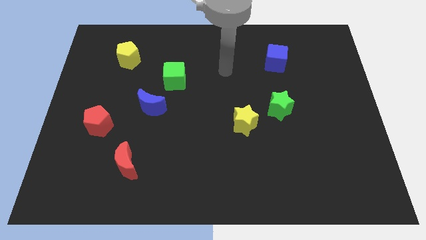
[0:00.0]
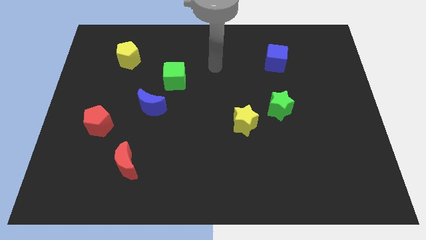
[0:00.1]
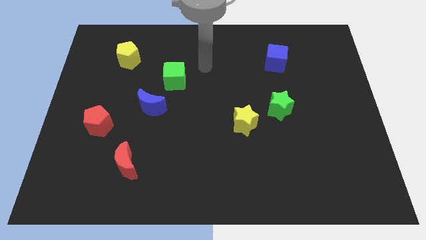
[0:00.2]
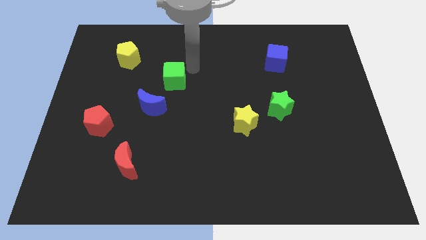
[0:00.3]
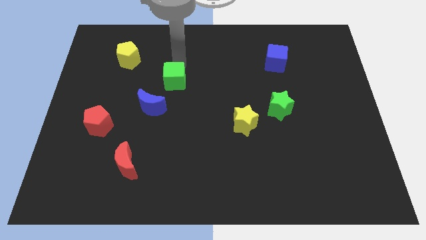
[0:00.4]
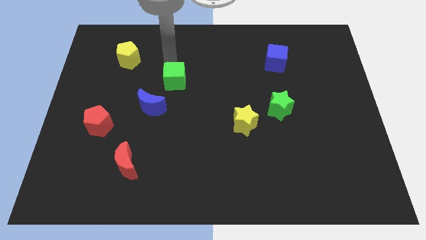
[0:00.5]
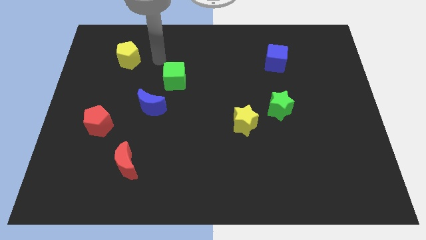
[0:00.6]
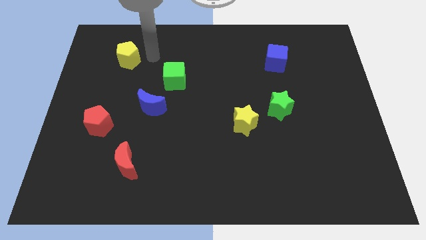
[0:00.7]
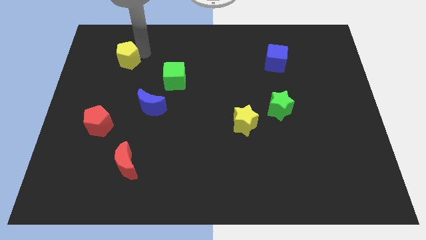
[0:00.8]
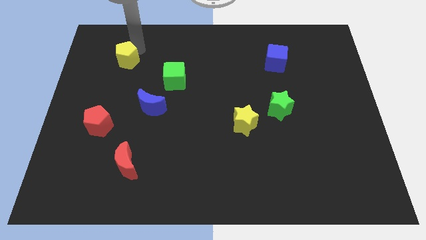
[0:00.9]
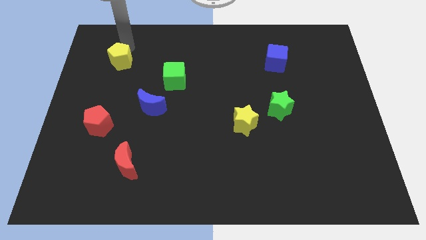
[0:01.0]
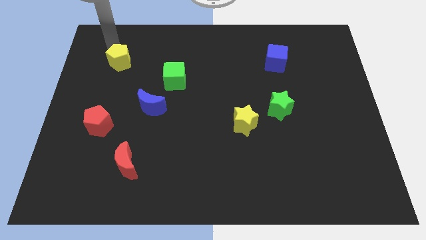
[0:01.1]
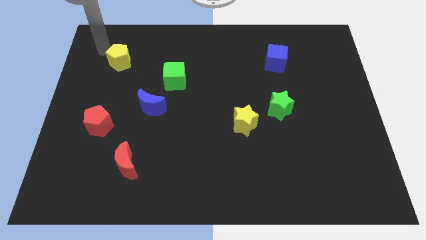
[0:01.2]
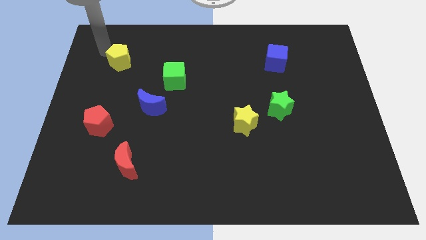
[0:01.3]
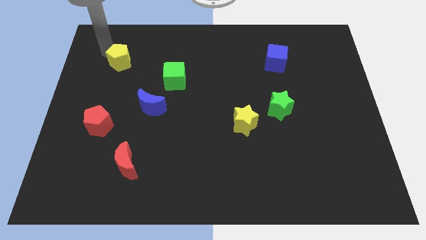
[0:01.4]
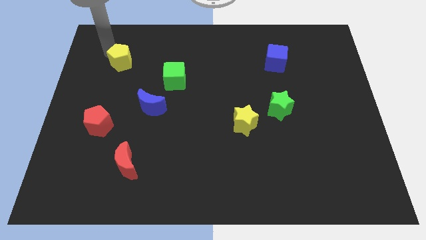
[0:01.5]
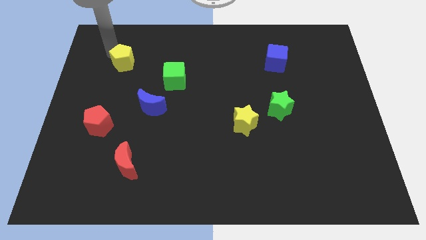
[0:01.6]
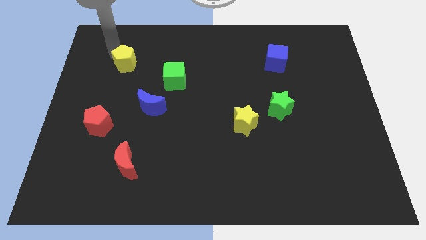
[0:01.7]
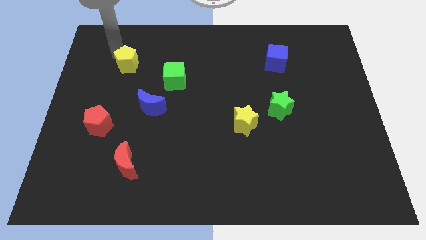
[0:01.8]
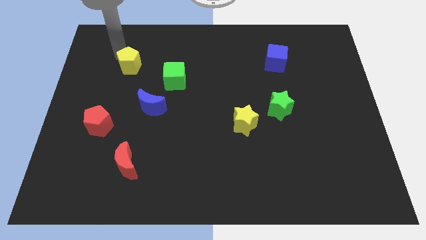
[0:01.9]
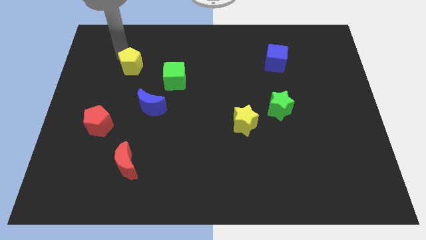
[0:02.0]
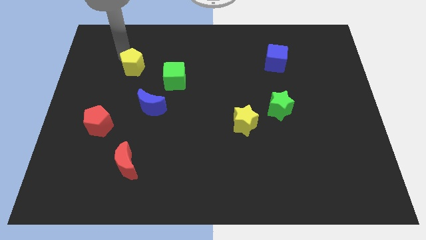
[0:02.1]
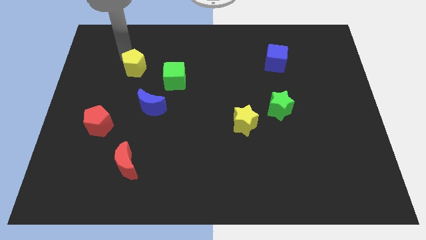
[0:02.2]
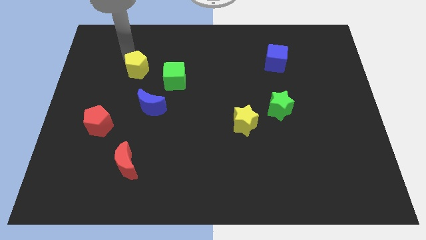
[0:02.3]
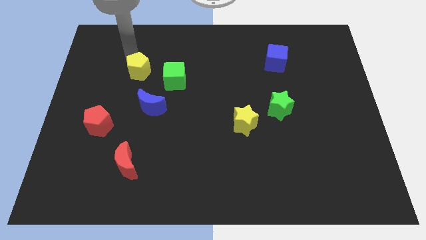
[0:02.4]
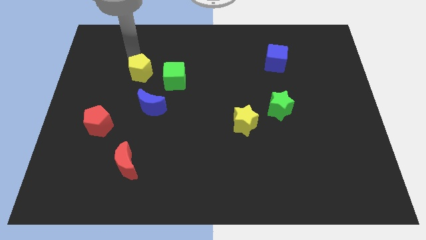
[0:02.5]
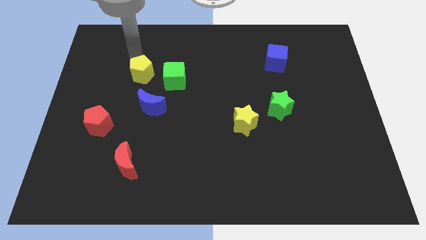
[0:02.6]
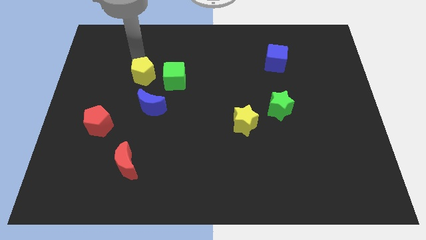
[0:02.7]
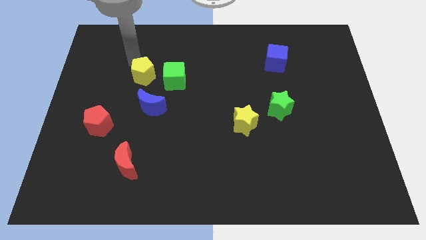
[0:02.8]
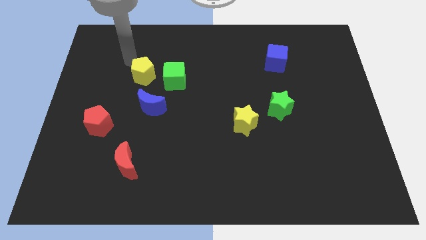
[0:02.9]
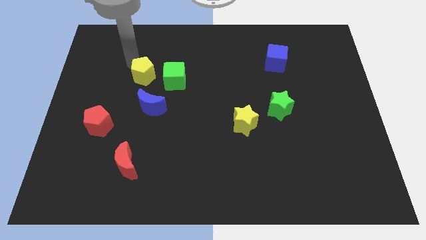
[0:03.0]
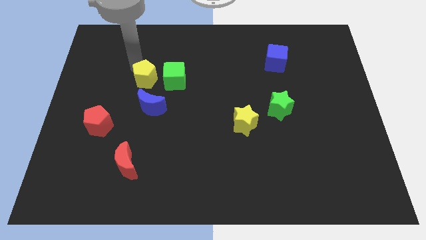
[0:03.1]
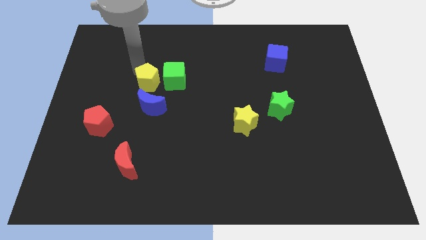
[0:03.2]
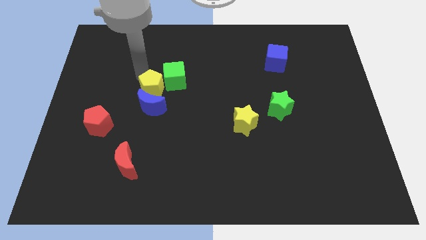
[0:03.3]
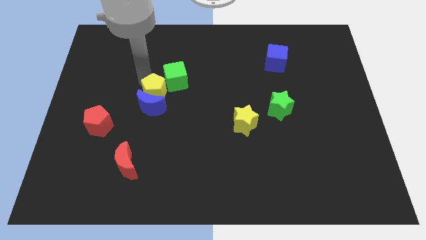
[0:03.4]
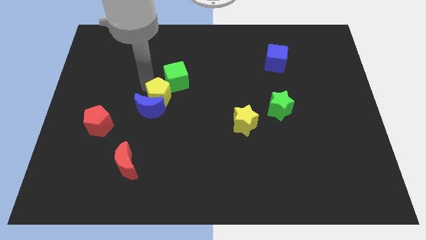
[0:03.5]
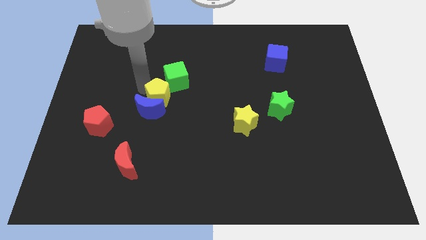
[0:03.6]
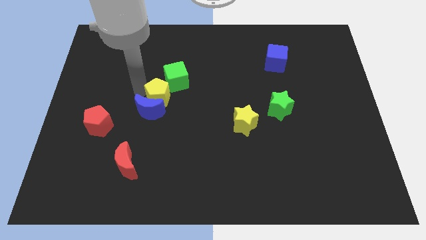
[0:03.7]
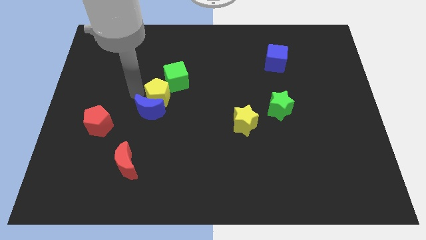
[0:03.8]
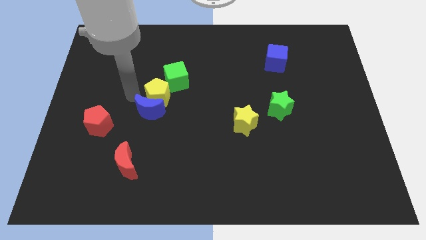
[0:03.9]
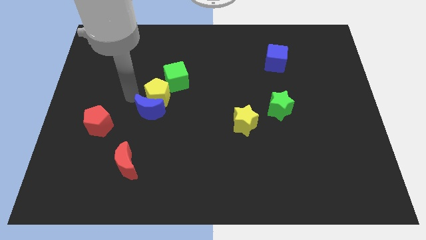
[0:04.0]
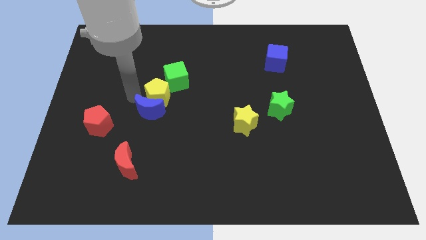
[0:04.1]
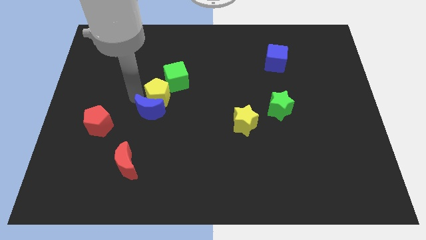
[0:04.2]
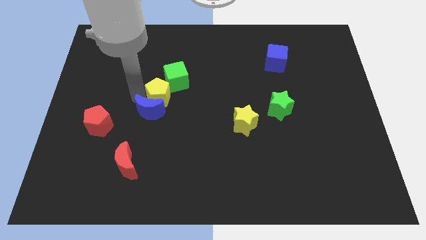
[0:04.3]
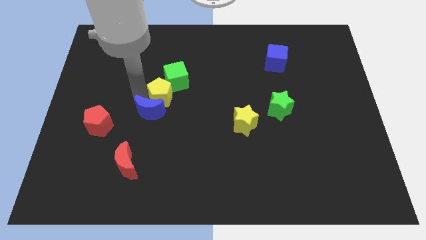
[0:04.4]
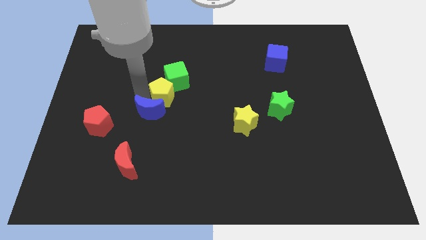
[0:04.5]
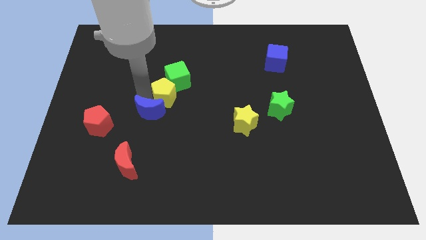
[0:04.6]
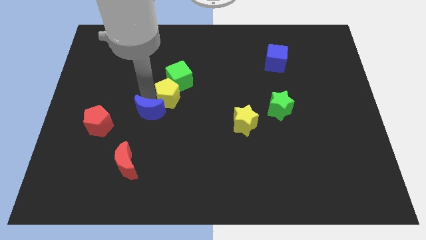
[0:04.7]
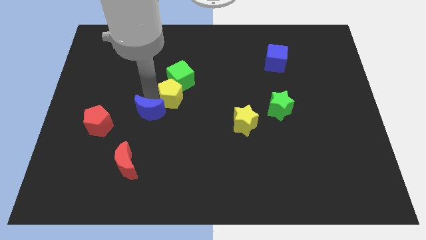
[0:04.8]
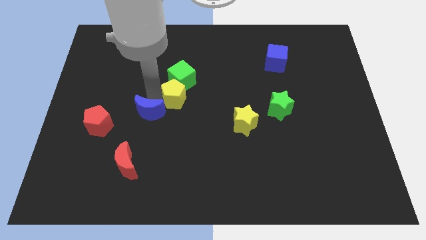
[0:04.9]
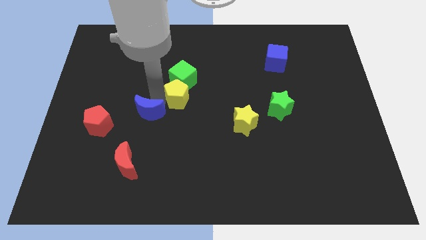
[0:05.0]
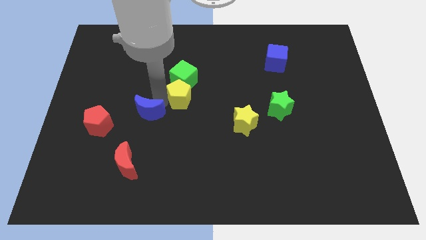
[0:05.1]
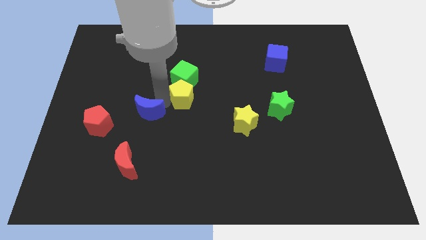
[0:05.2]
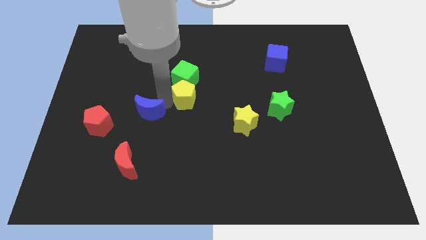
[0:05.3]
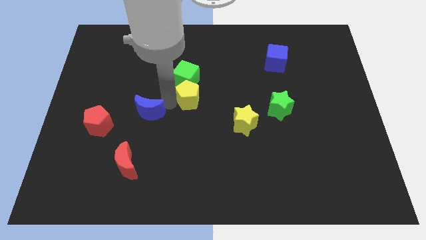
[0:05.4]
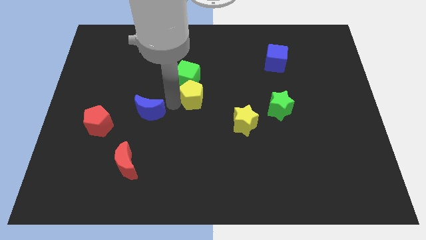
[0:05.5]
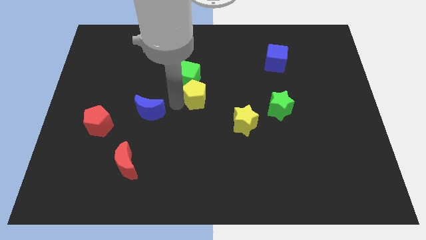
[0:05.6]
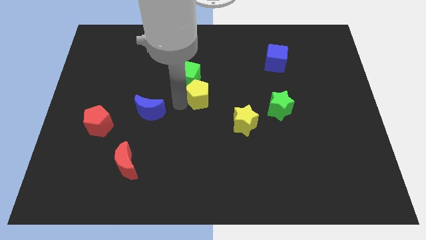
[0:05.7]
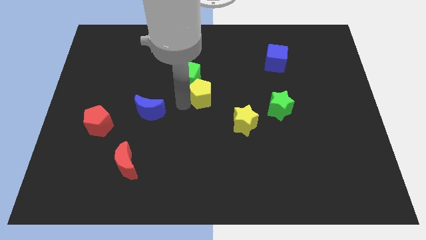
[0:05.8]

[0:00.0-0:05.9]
push the yellow pentagon to the top left of the yellow star

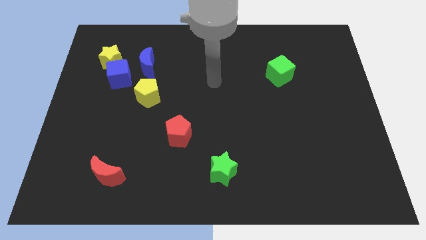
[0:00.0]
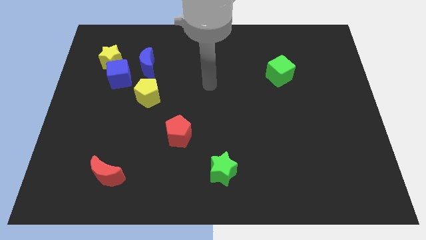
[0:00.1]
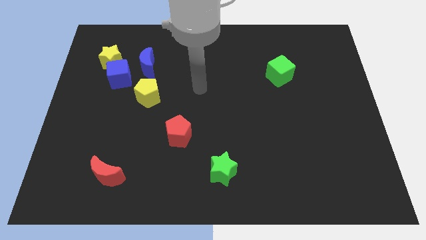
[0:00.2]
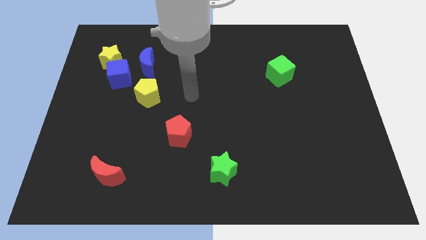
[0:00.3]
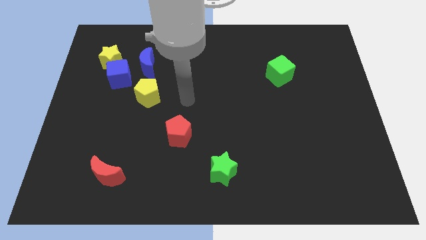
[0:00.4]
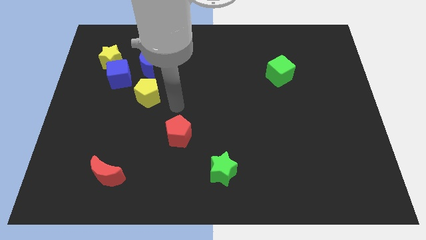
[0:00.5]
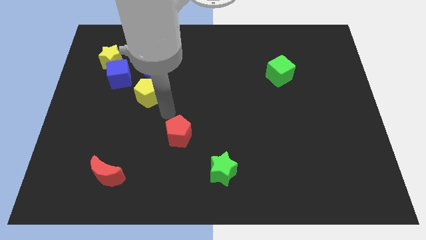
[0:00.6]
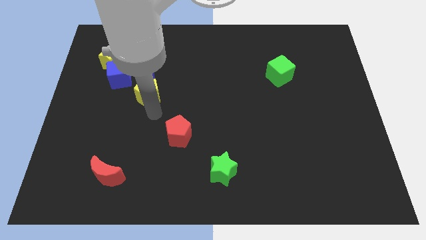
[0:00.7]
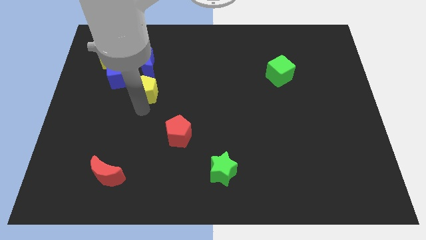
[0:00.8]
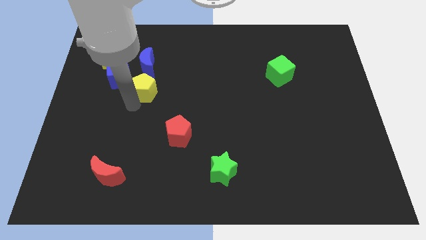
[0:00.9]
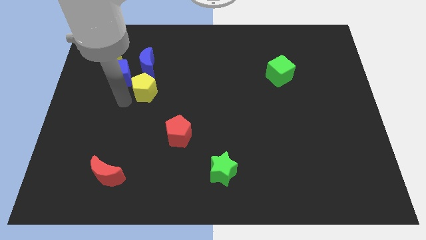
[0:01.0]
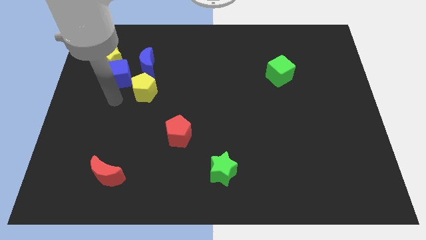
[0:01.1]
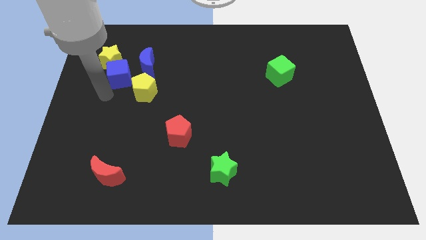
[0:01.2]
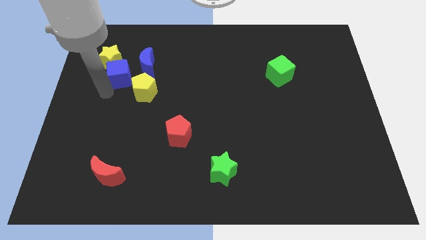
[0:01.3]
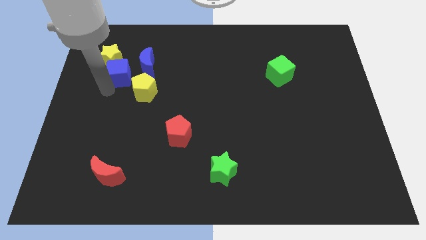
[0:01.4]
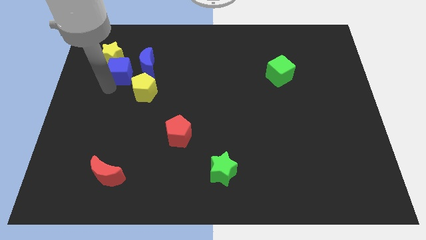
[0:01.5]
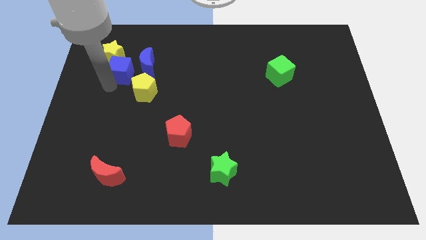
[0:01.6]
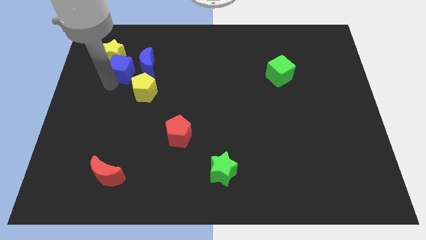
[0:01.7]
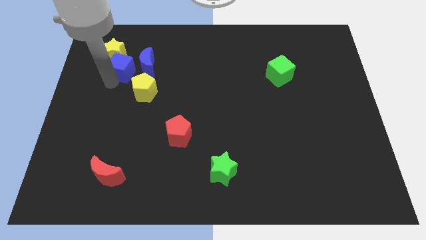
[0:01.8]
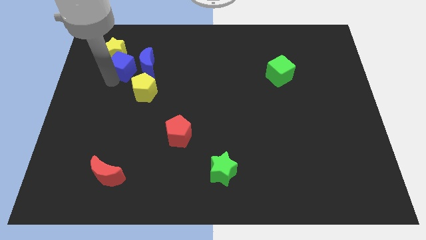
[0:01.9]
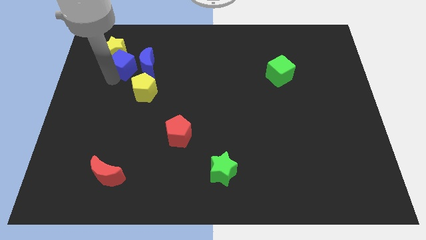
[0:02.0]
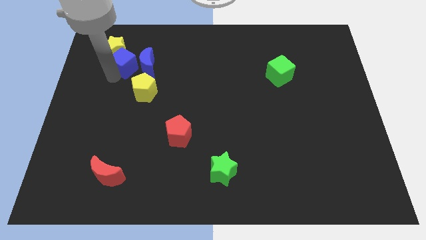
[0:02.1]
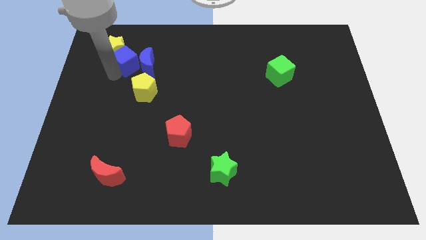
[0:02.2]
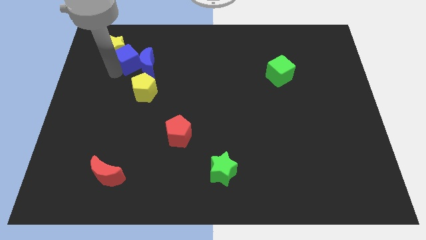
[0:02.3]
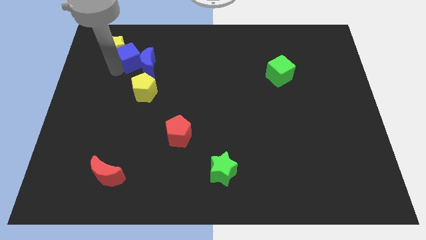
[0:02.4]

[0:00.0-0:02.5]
put the blue cube above the yellow pentagon
